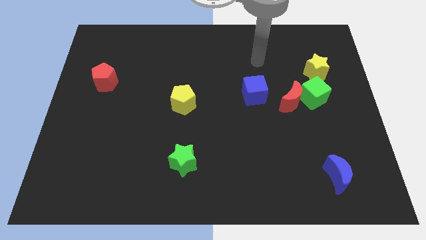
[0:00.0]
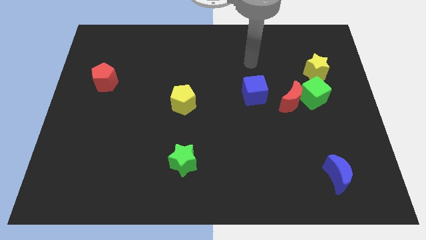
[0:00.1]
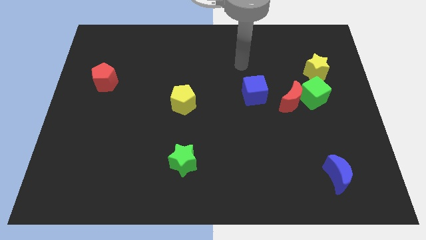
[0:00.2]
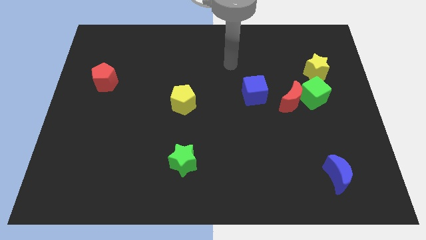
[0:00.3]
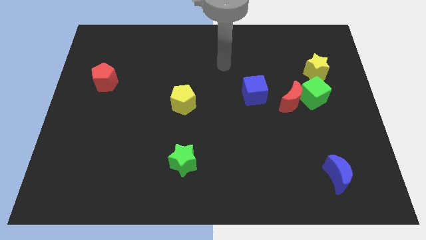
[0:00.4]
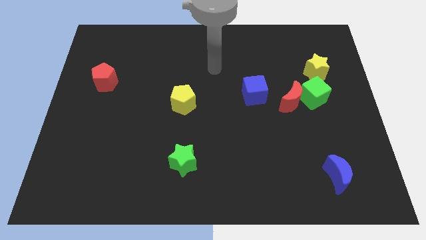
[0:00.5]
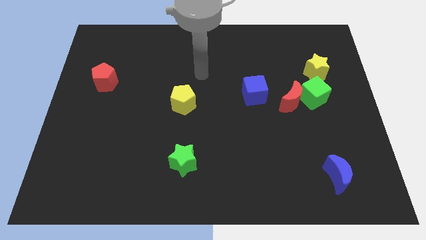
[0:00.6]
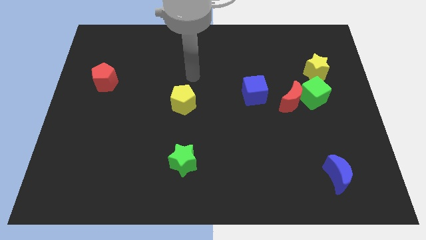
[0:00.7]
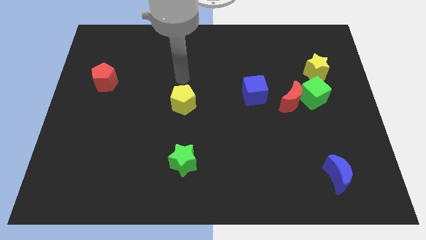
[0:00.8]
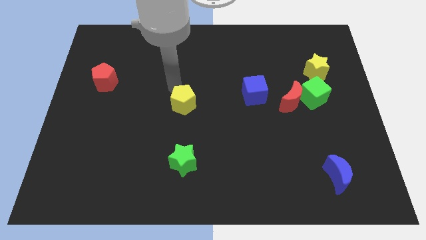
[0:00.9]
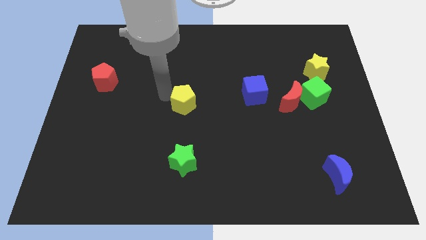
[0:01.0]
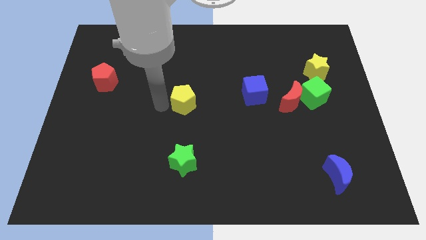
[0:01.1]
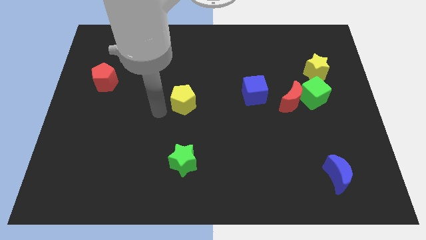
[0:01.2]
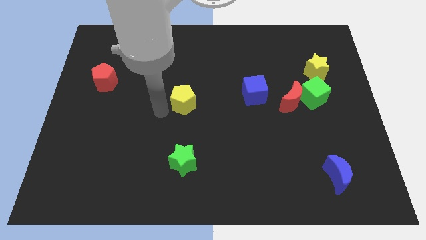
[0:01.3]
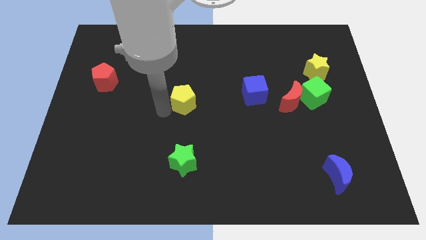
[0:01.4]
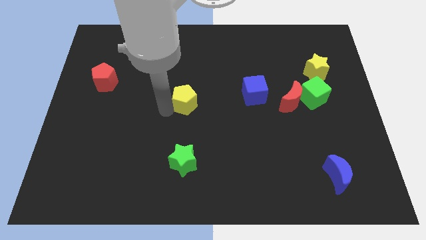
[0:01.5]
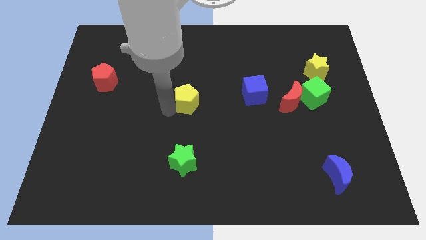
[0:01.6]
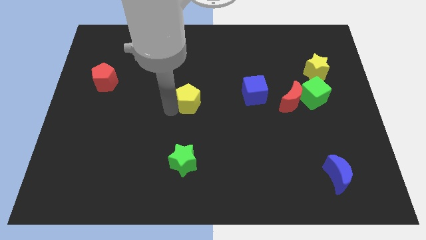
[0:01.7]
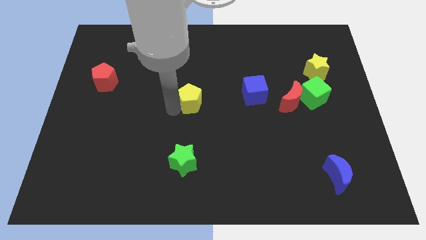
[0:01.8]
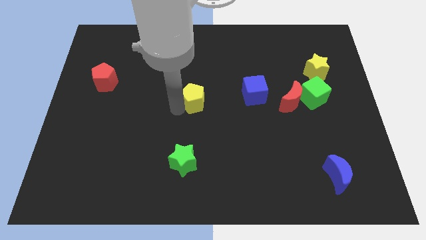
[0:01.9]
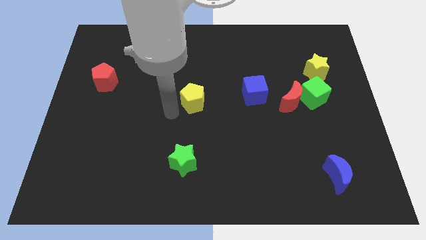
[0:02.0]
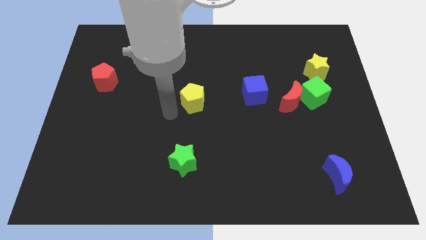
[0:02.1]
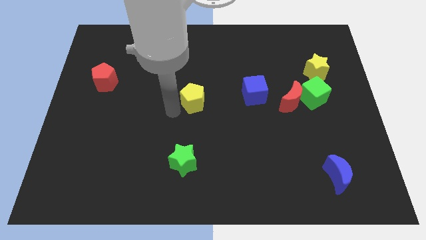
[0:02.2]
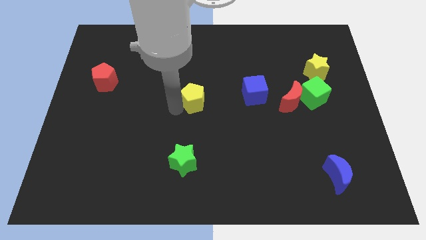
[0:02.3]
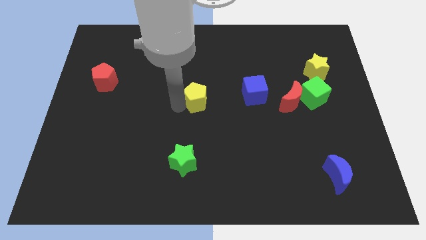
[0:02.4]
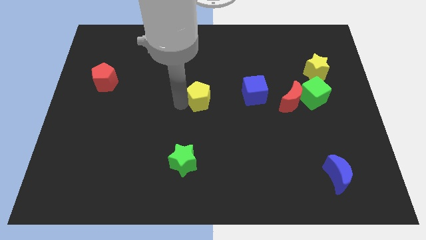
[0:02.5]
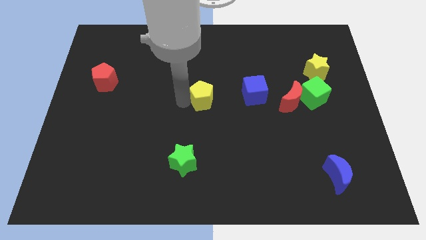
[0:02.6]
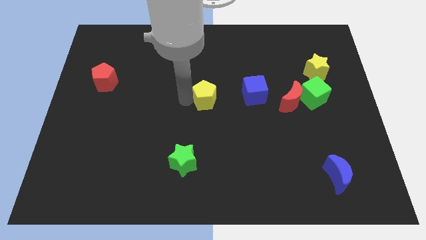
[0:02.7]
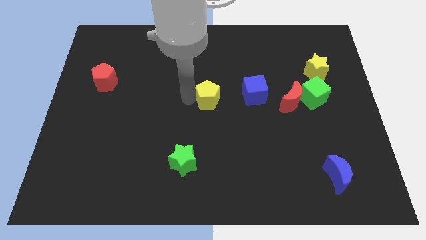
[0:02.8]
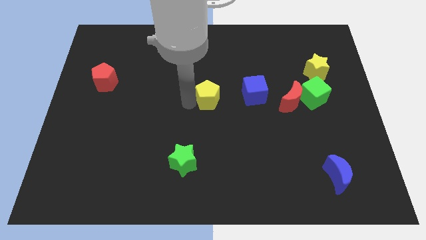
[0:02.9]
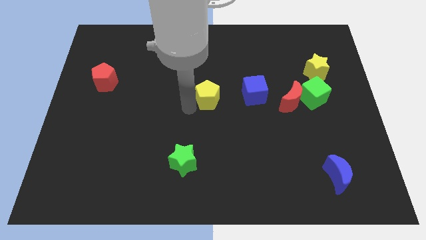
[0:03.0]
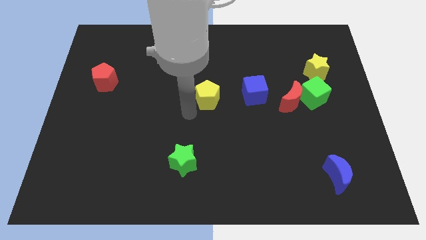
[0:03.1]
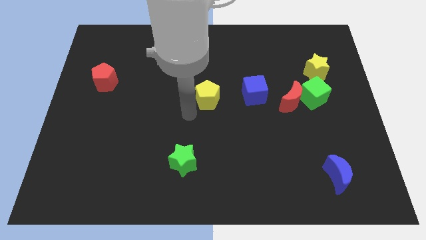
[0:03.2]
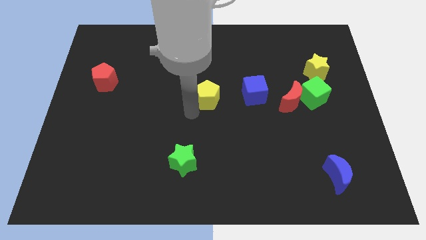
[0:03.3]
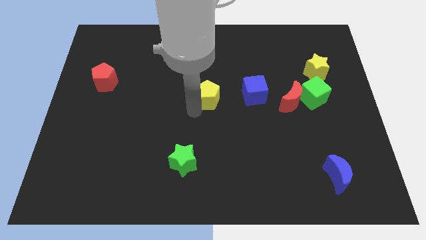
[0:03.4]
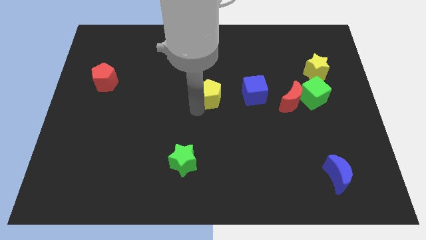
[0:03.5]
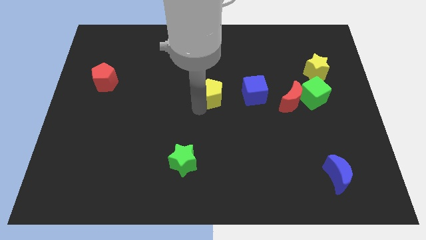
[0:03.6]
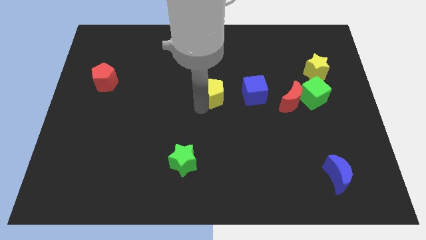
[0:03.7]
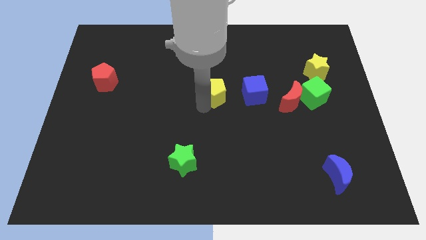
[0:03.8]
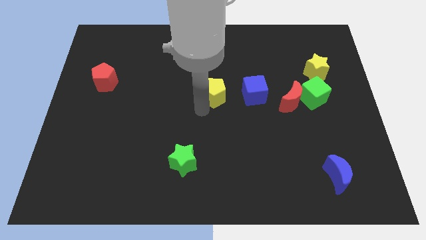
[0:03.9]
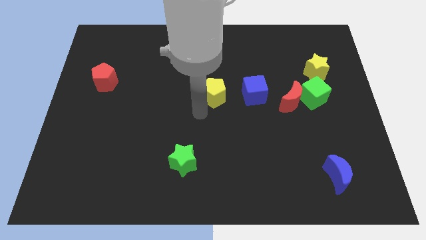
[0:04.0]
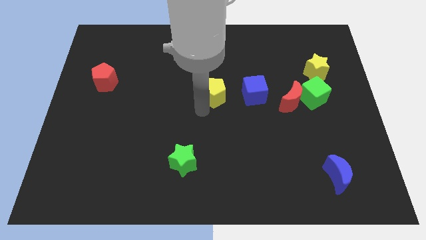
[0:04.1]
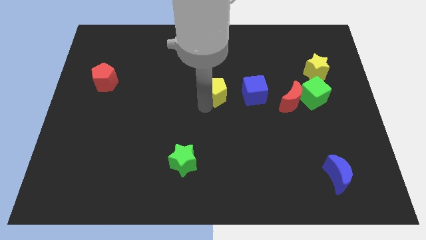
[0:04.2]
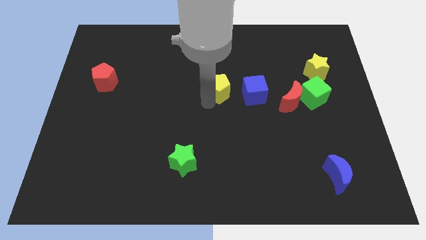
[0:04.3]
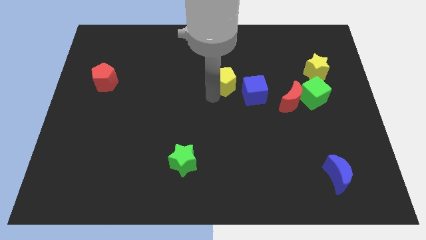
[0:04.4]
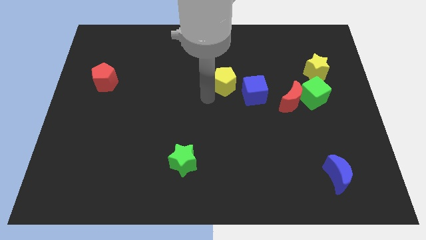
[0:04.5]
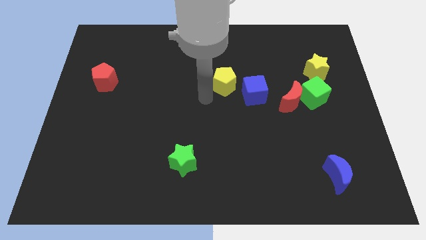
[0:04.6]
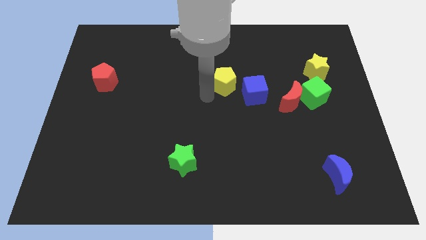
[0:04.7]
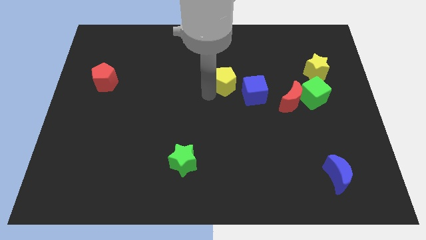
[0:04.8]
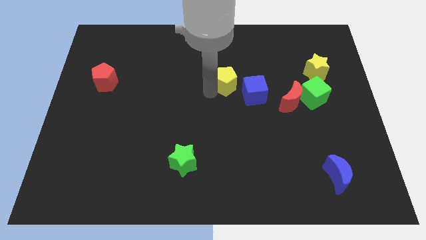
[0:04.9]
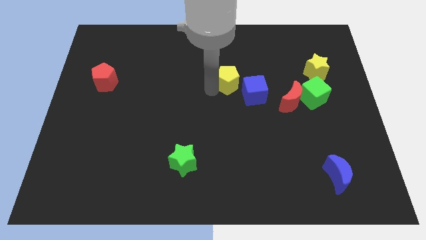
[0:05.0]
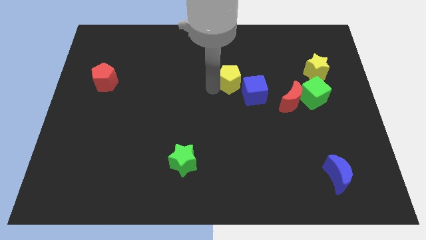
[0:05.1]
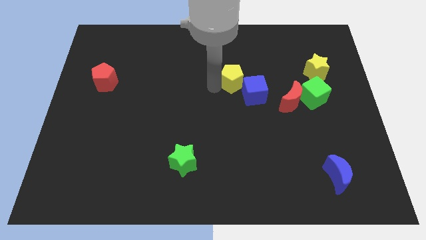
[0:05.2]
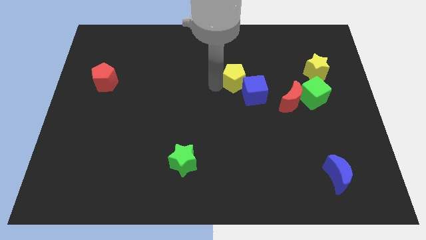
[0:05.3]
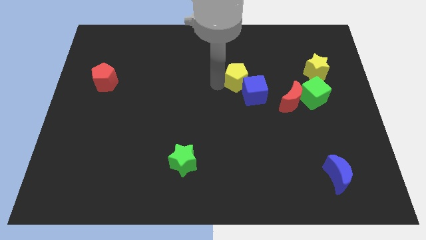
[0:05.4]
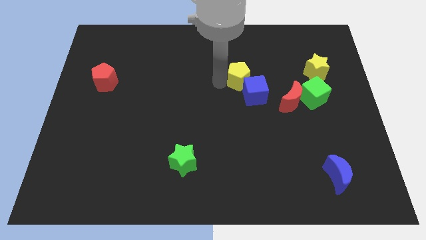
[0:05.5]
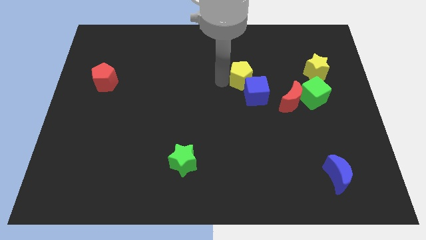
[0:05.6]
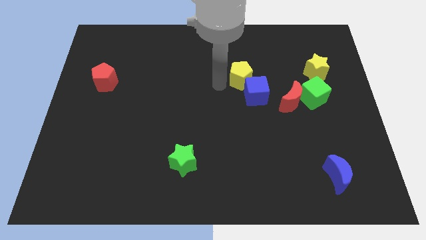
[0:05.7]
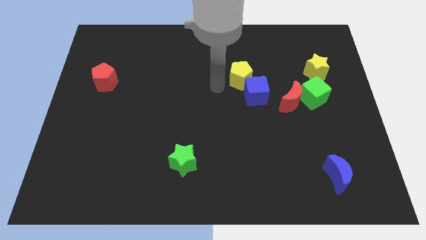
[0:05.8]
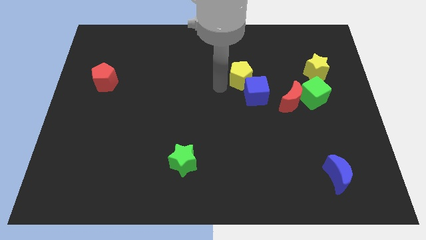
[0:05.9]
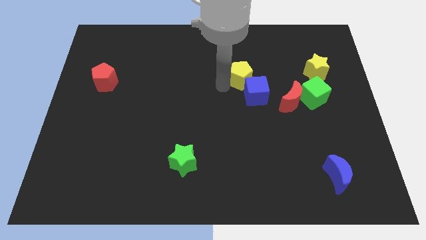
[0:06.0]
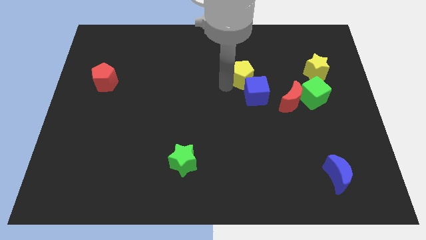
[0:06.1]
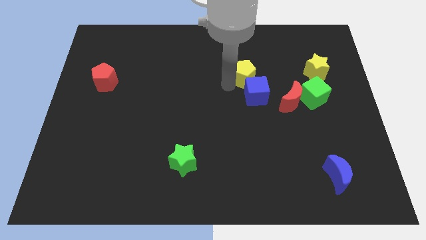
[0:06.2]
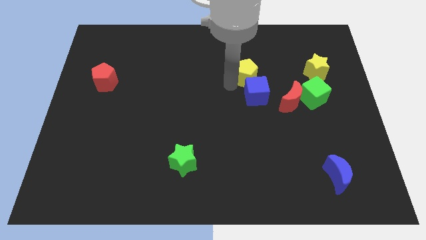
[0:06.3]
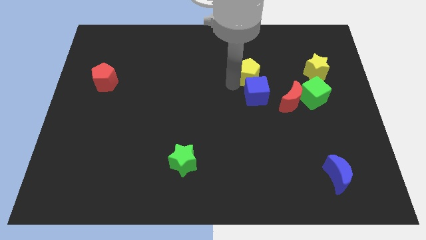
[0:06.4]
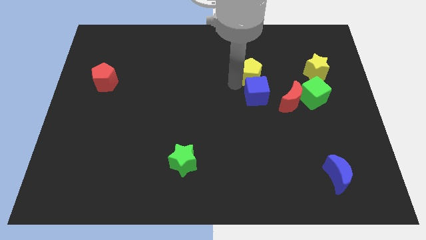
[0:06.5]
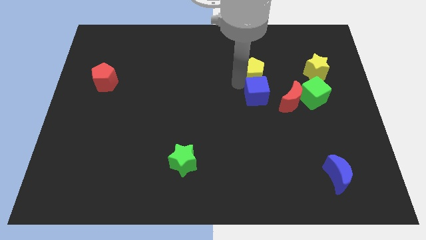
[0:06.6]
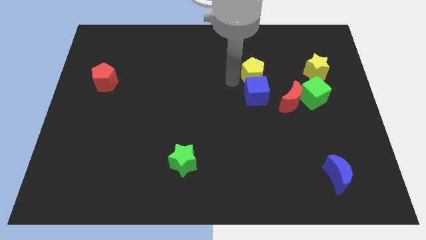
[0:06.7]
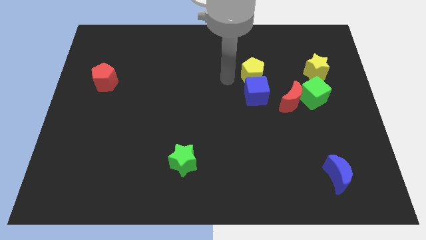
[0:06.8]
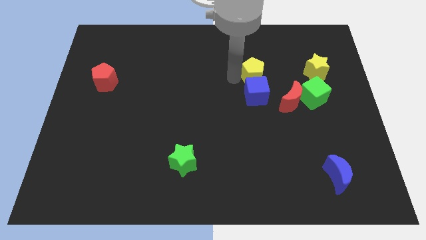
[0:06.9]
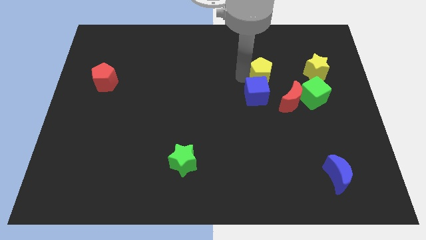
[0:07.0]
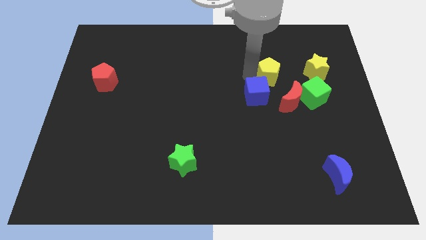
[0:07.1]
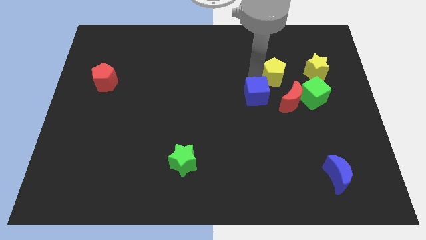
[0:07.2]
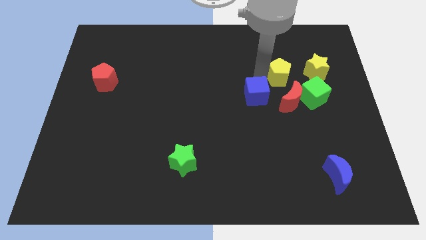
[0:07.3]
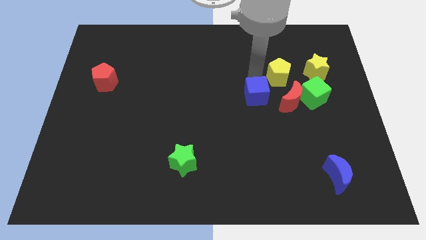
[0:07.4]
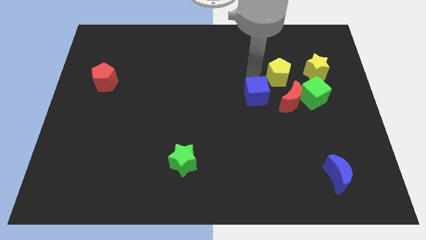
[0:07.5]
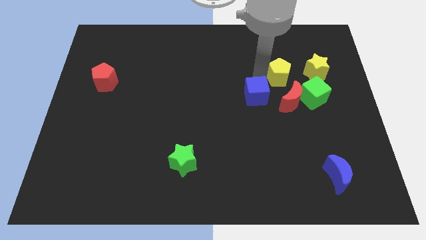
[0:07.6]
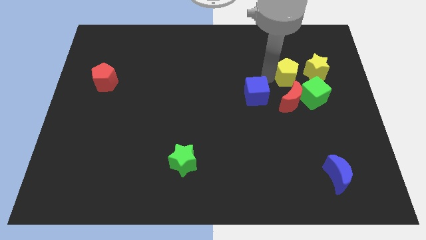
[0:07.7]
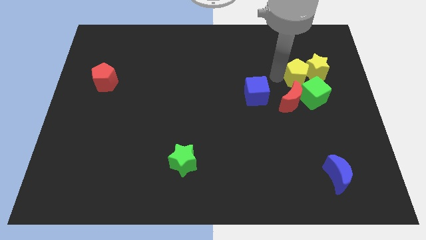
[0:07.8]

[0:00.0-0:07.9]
move the yellow pentagon towards the yellow star
